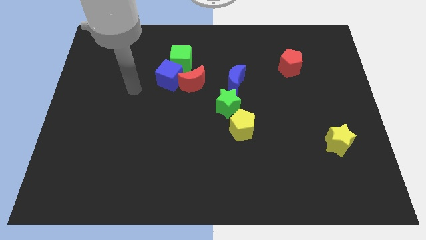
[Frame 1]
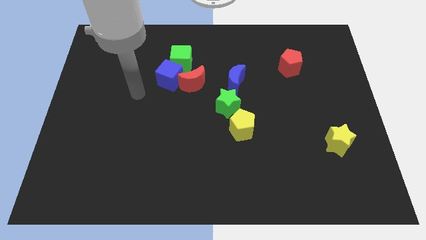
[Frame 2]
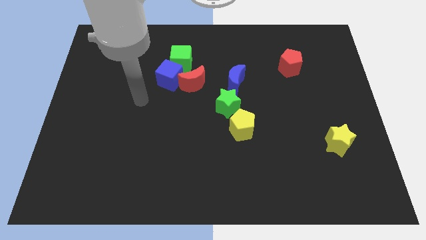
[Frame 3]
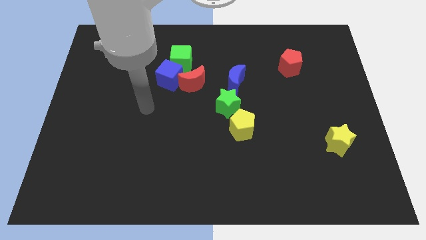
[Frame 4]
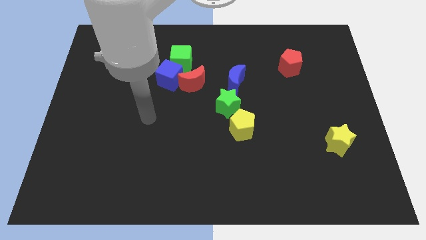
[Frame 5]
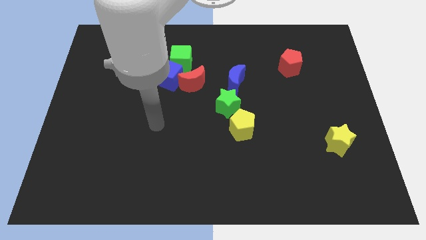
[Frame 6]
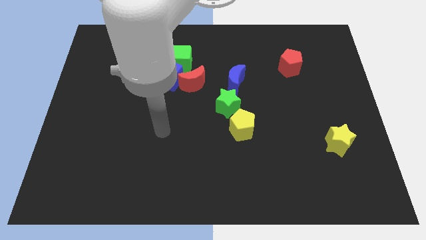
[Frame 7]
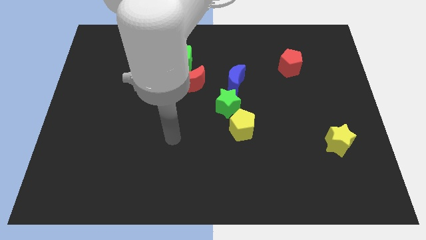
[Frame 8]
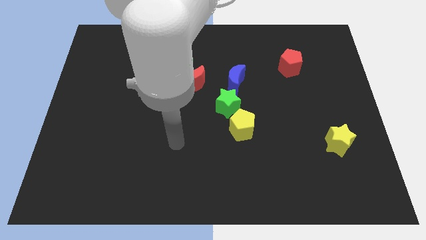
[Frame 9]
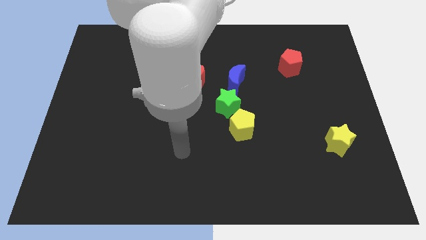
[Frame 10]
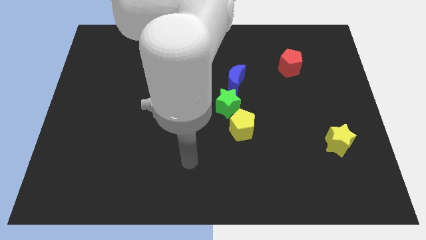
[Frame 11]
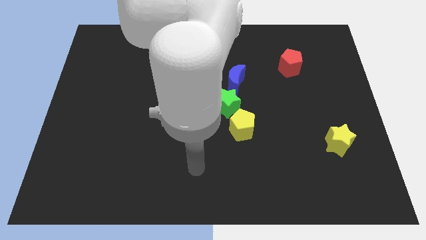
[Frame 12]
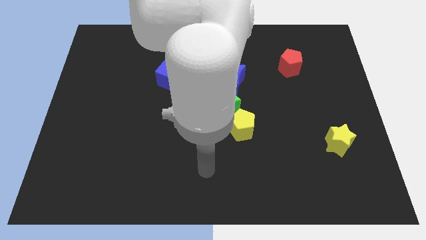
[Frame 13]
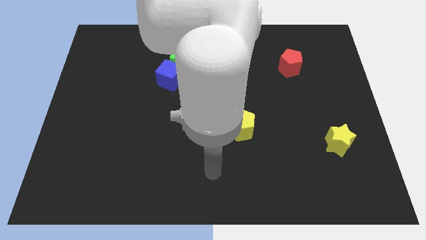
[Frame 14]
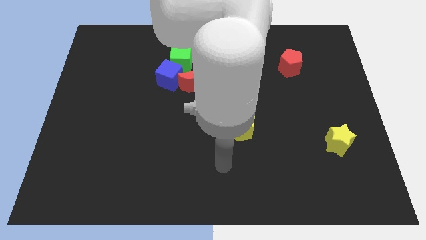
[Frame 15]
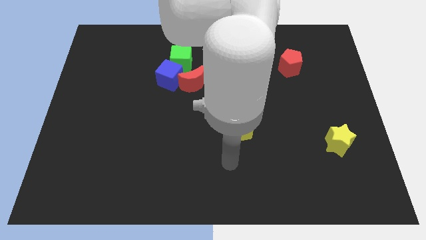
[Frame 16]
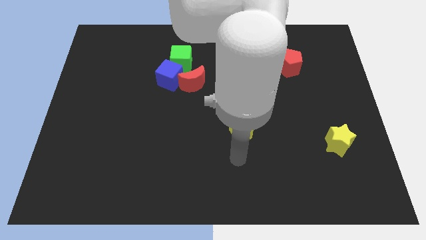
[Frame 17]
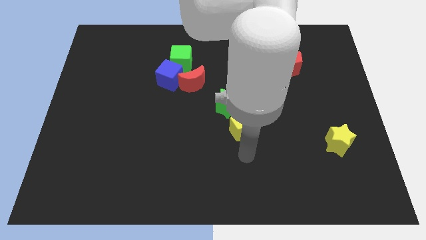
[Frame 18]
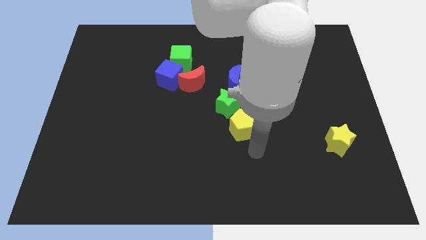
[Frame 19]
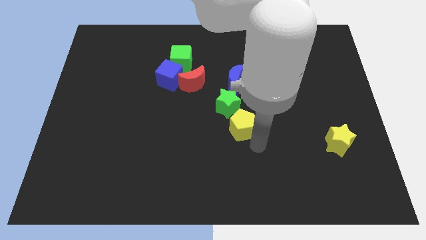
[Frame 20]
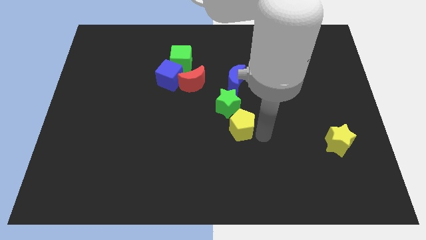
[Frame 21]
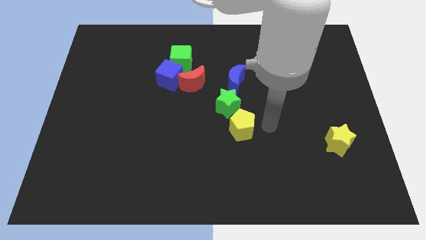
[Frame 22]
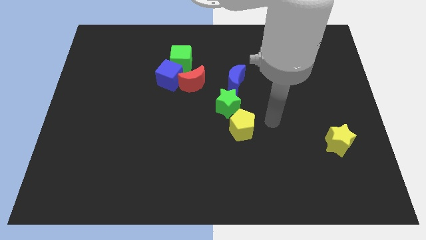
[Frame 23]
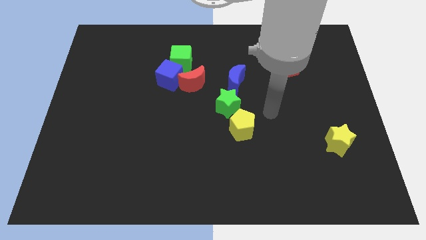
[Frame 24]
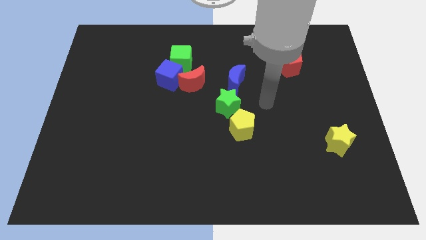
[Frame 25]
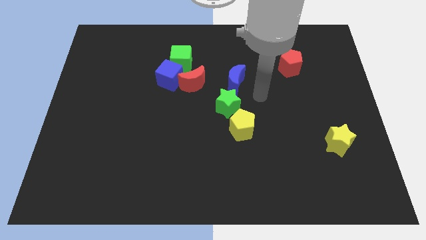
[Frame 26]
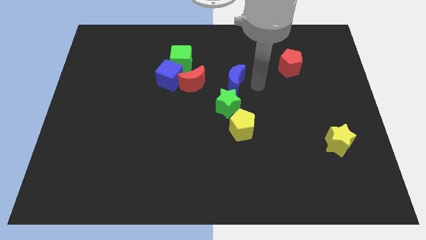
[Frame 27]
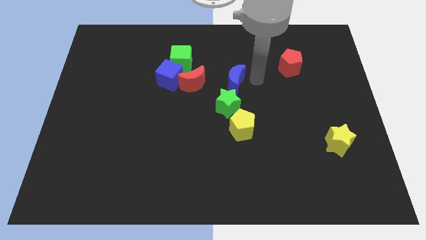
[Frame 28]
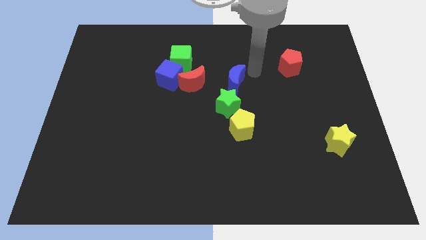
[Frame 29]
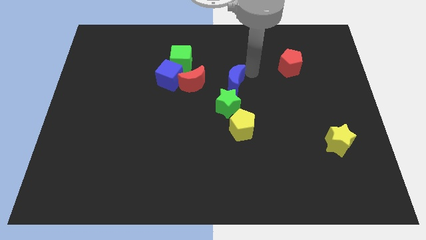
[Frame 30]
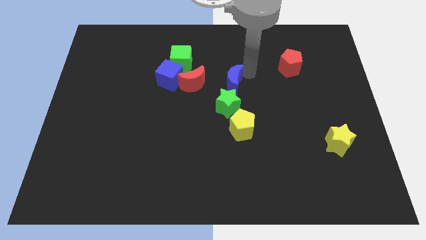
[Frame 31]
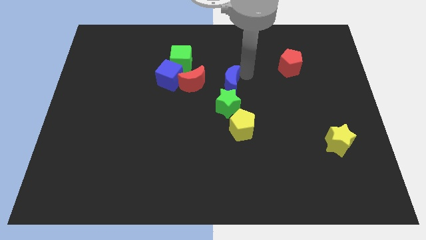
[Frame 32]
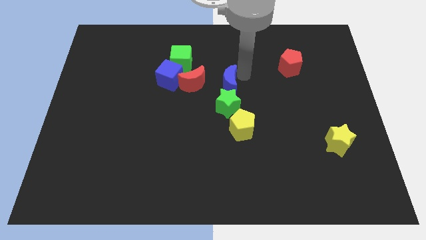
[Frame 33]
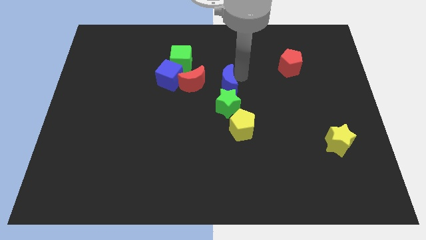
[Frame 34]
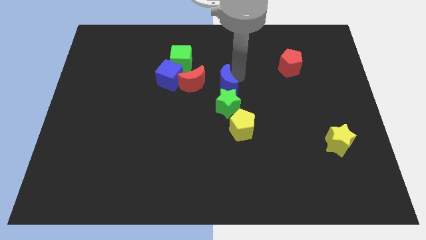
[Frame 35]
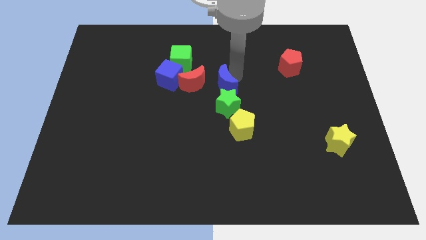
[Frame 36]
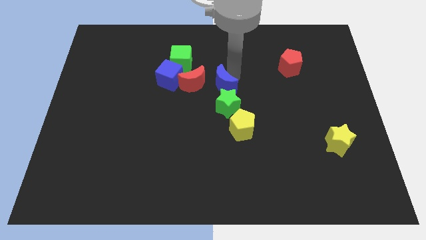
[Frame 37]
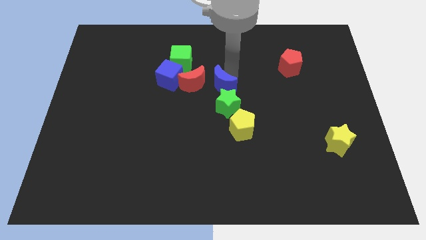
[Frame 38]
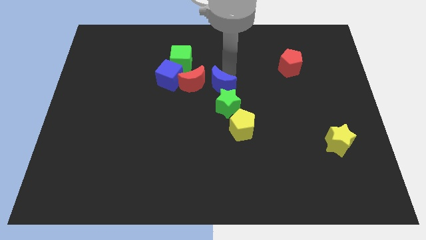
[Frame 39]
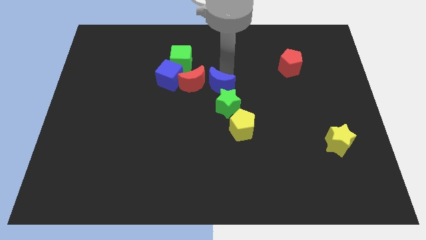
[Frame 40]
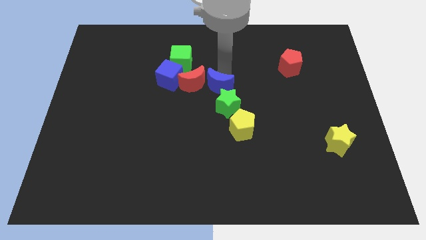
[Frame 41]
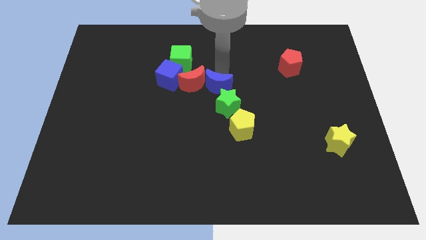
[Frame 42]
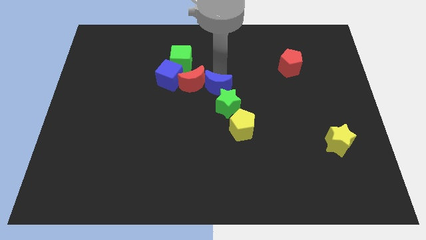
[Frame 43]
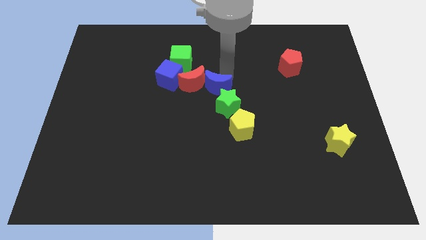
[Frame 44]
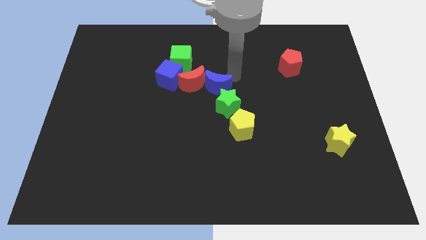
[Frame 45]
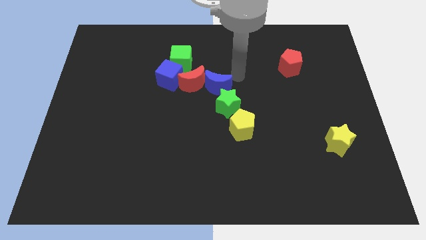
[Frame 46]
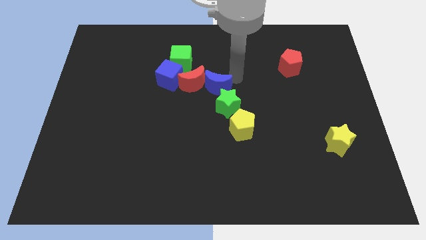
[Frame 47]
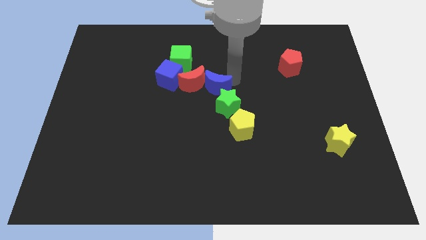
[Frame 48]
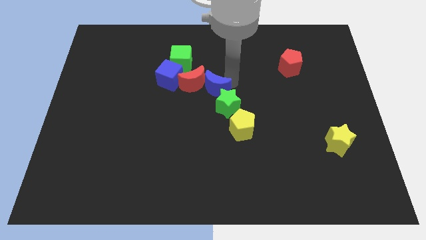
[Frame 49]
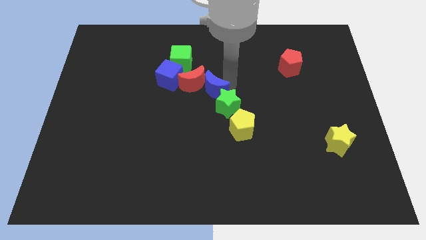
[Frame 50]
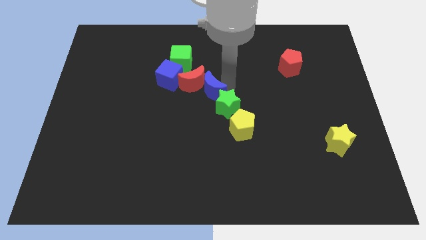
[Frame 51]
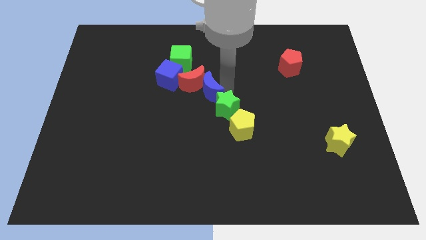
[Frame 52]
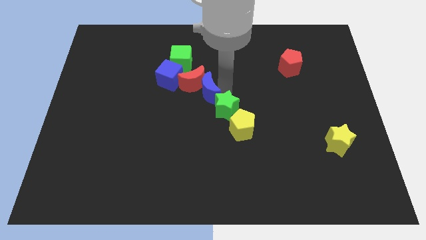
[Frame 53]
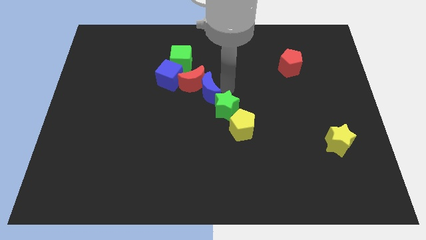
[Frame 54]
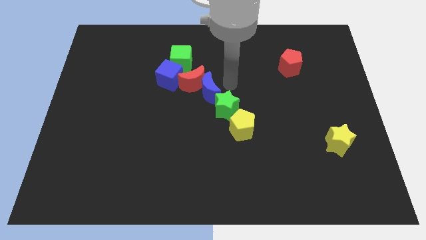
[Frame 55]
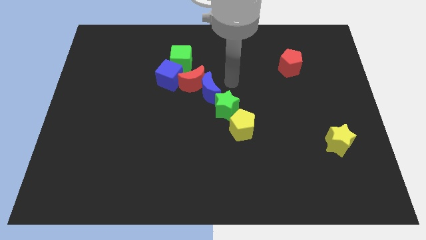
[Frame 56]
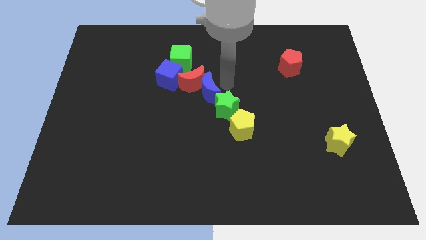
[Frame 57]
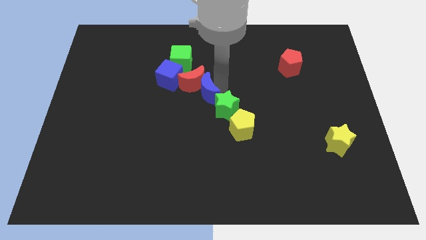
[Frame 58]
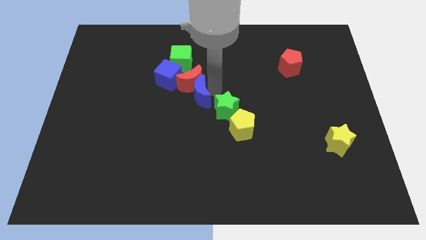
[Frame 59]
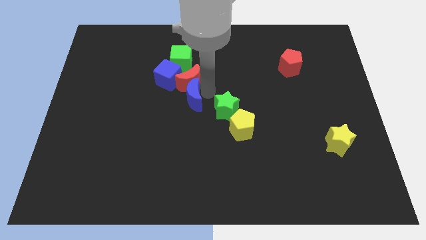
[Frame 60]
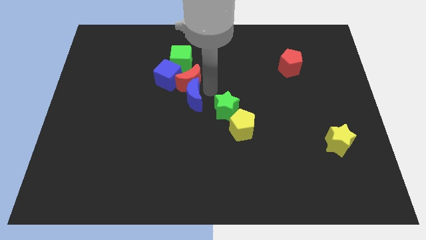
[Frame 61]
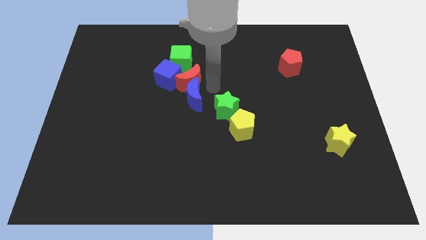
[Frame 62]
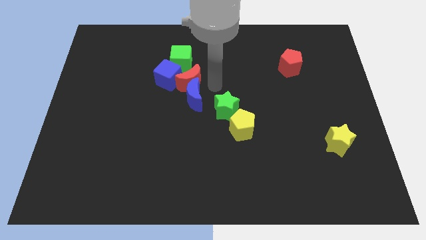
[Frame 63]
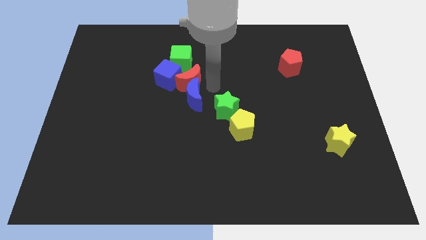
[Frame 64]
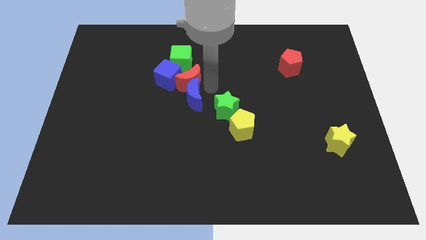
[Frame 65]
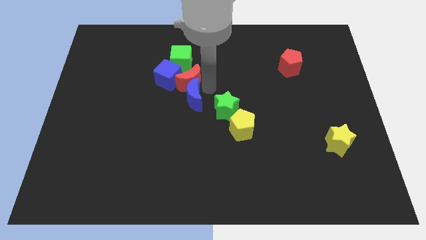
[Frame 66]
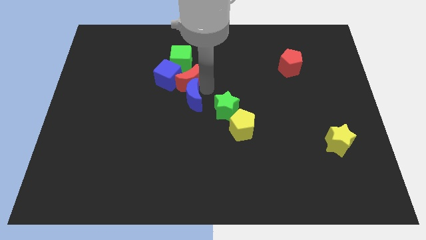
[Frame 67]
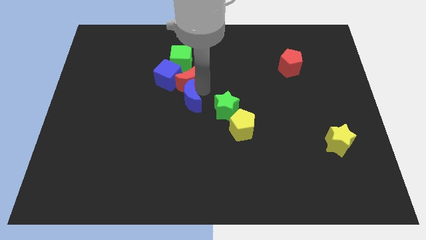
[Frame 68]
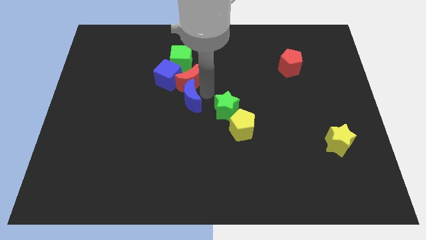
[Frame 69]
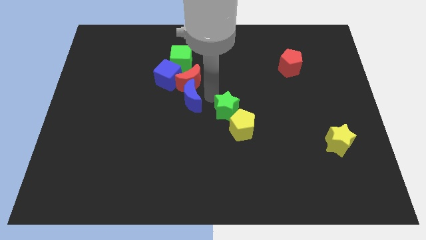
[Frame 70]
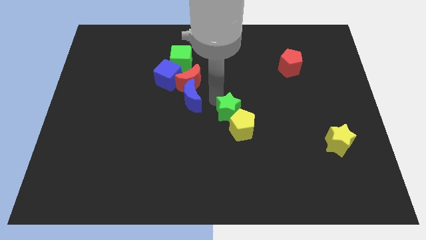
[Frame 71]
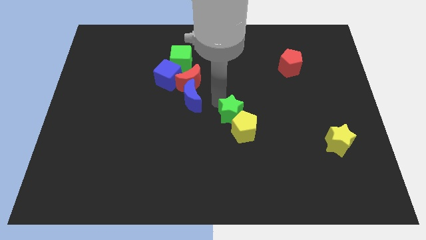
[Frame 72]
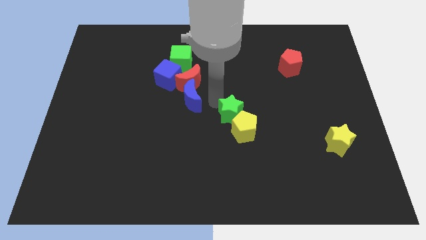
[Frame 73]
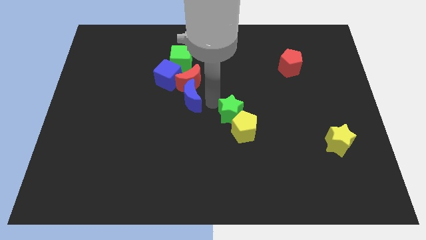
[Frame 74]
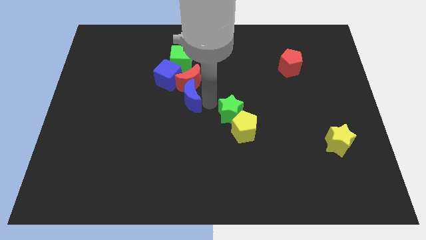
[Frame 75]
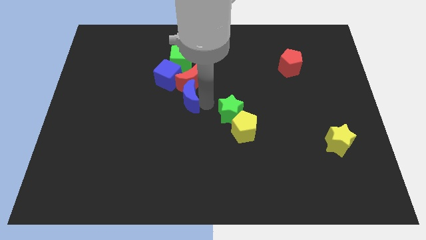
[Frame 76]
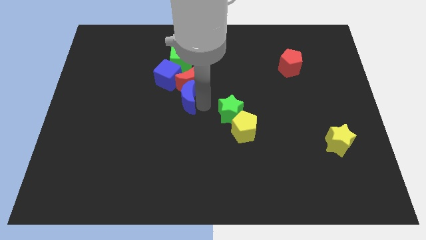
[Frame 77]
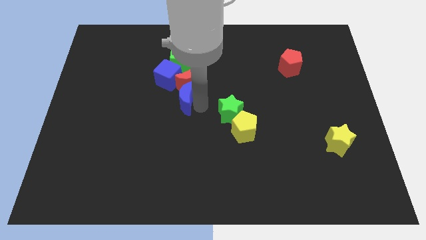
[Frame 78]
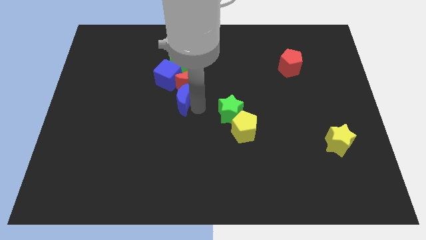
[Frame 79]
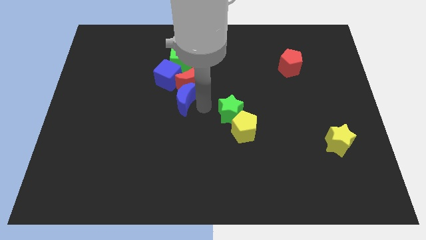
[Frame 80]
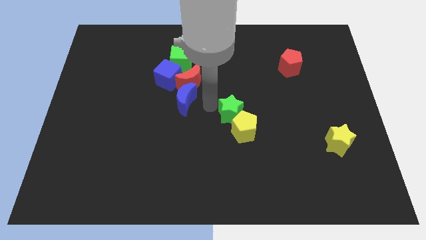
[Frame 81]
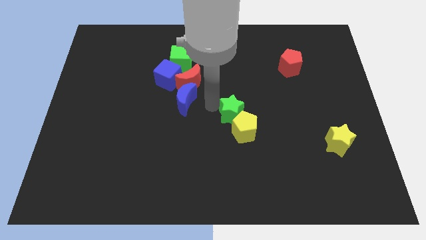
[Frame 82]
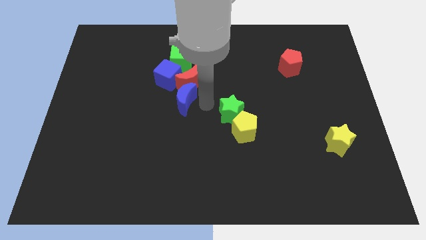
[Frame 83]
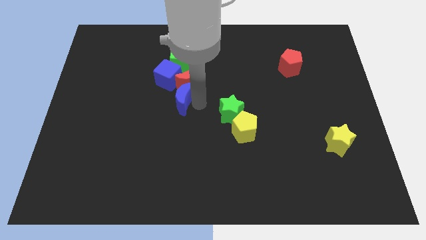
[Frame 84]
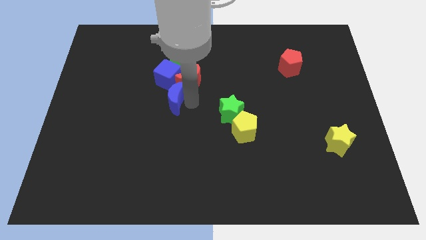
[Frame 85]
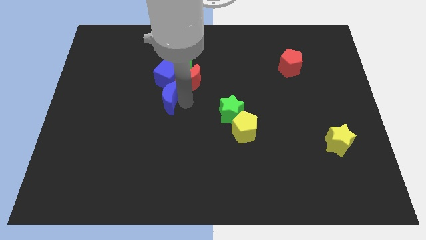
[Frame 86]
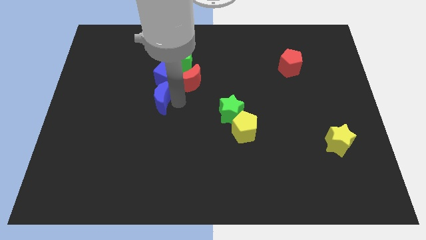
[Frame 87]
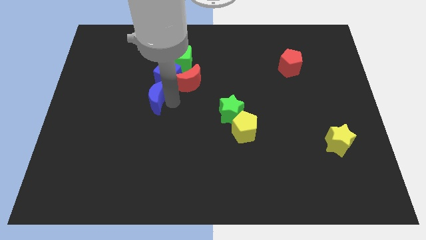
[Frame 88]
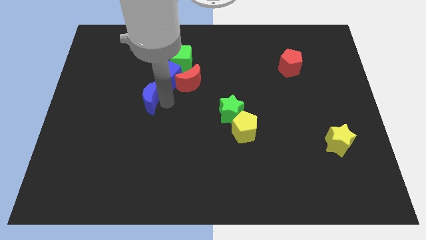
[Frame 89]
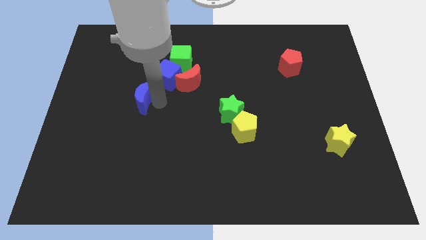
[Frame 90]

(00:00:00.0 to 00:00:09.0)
slide the blue moon left
